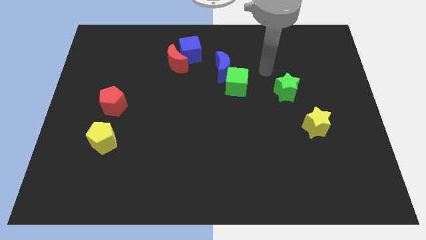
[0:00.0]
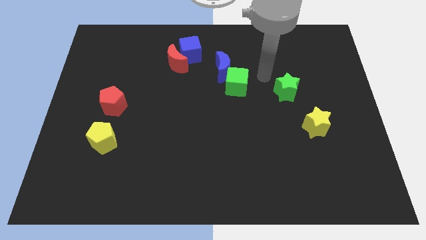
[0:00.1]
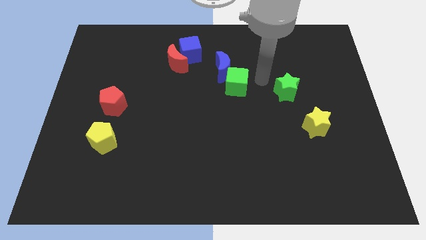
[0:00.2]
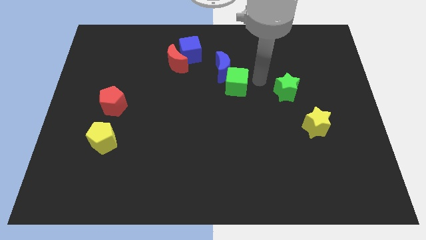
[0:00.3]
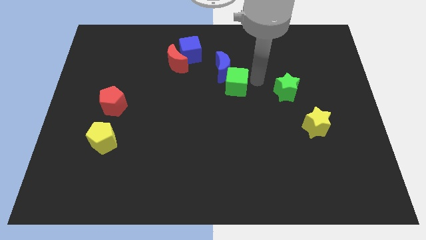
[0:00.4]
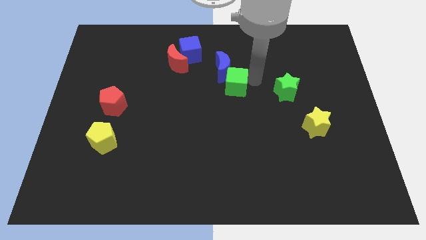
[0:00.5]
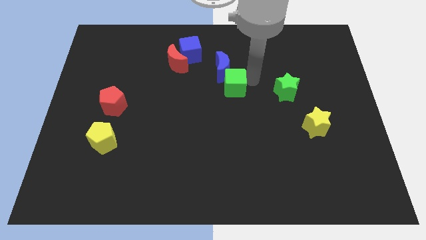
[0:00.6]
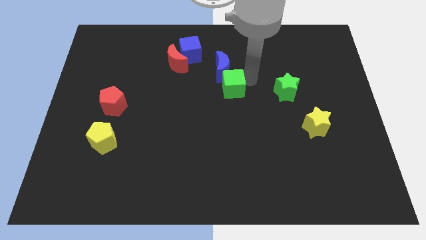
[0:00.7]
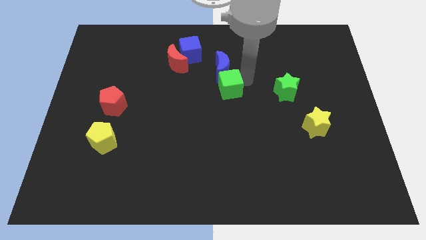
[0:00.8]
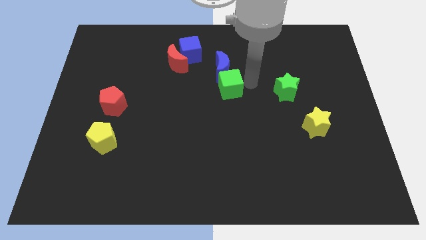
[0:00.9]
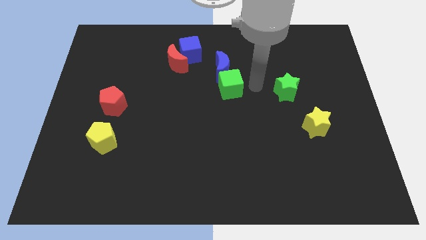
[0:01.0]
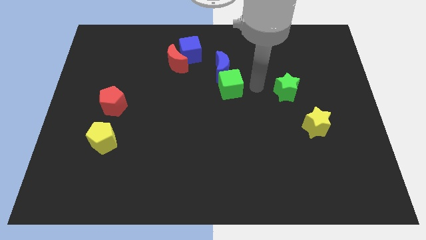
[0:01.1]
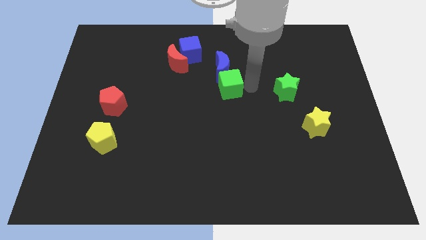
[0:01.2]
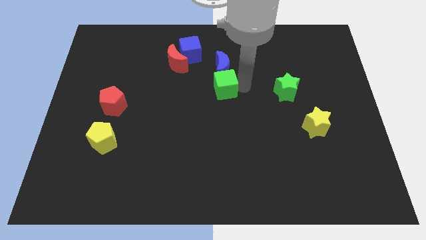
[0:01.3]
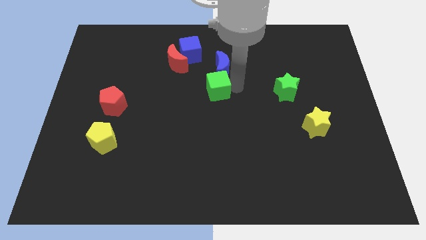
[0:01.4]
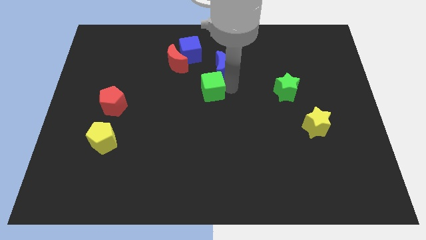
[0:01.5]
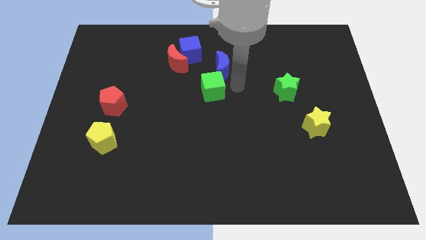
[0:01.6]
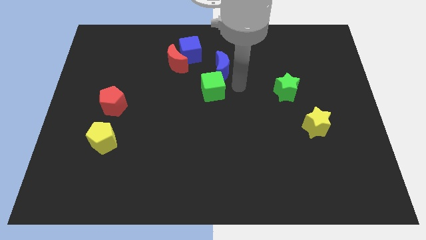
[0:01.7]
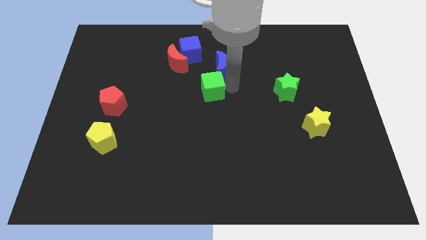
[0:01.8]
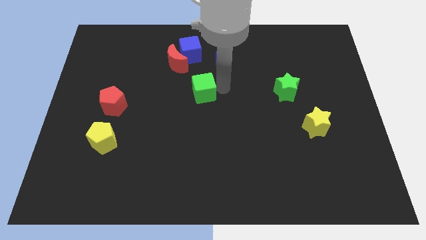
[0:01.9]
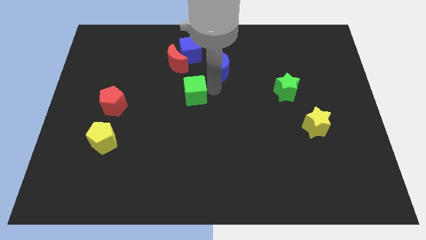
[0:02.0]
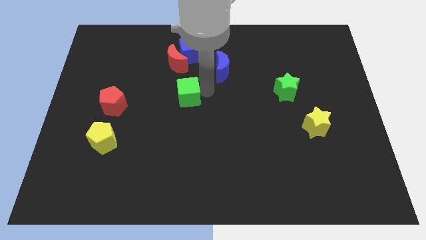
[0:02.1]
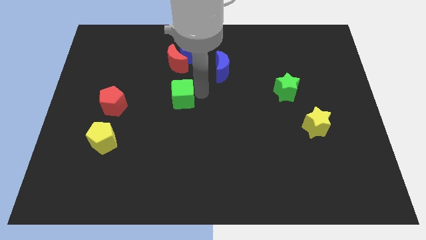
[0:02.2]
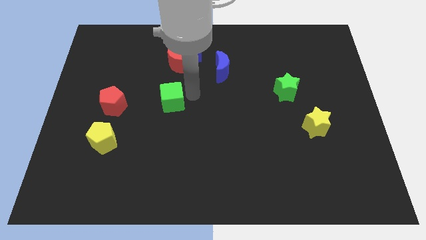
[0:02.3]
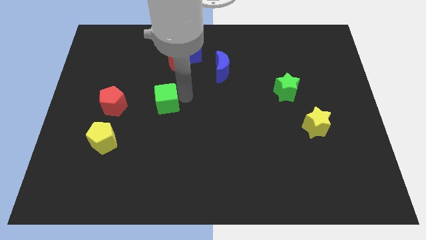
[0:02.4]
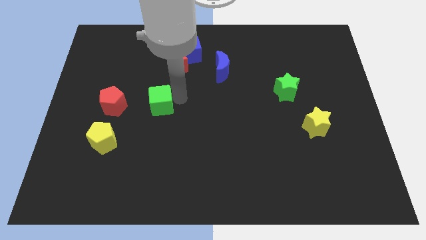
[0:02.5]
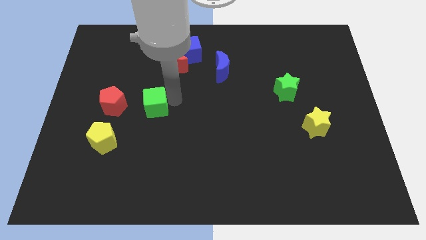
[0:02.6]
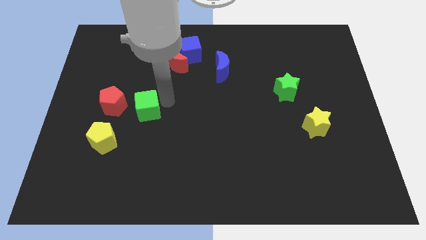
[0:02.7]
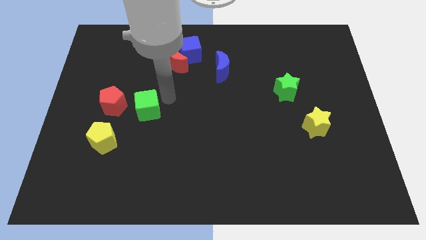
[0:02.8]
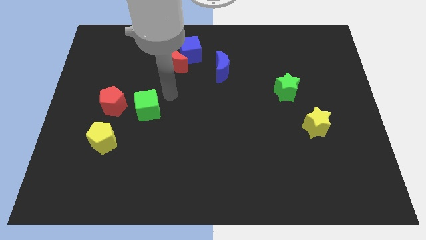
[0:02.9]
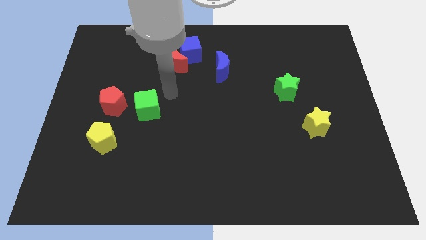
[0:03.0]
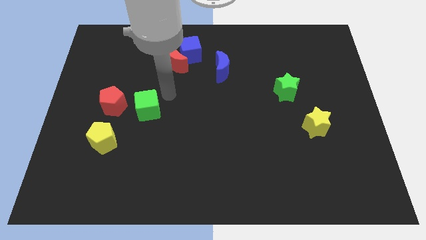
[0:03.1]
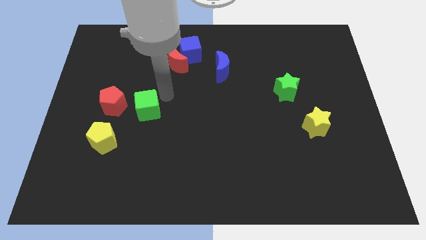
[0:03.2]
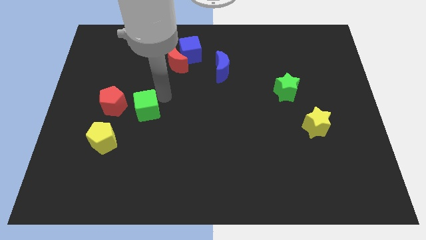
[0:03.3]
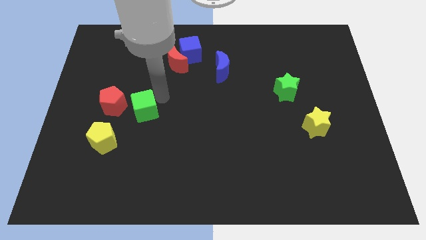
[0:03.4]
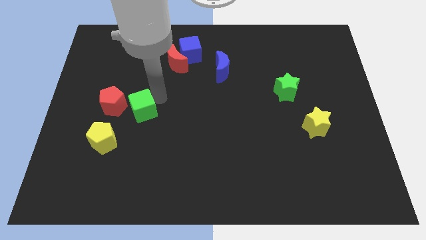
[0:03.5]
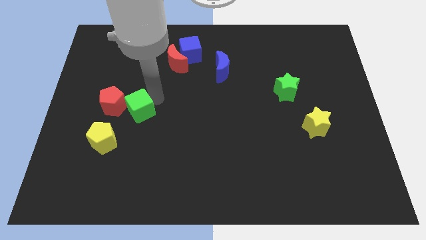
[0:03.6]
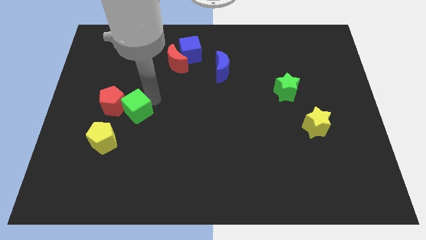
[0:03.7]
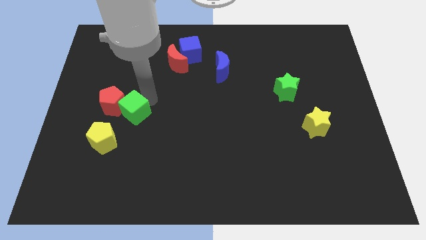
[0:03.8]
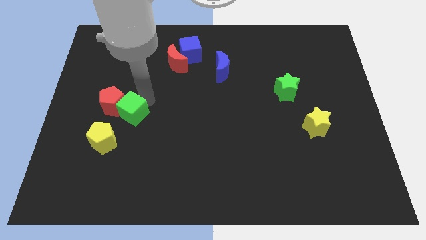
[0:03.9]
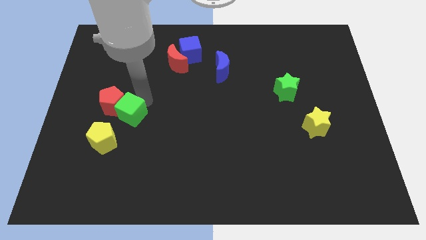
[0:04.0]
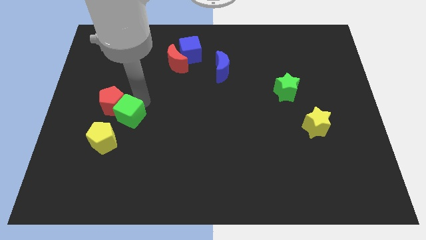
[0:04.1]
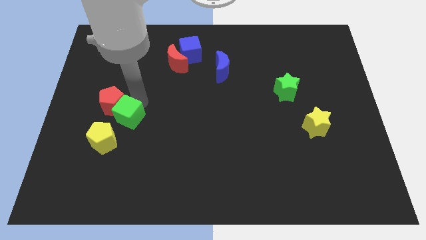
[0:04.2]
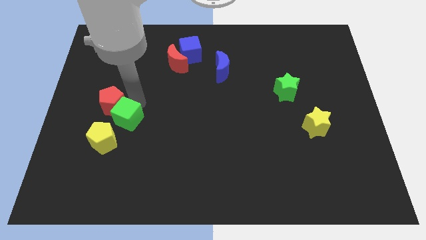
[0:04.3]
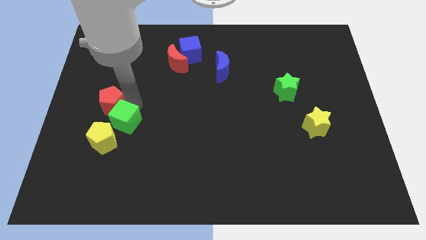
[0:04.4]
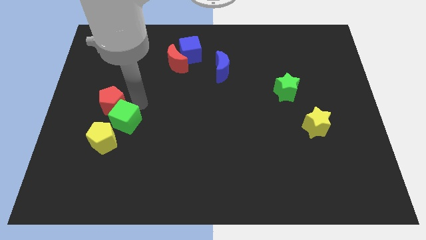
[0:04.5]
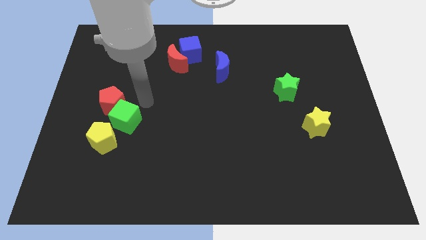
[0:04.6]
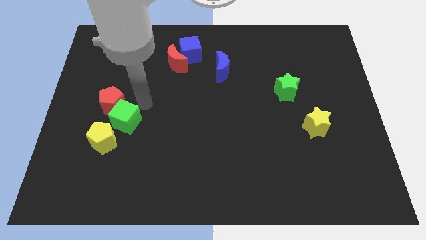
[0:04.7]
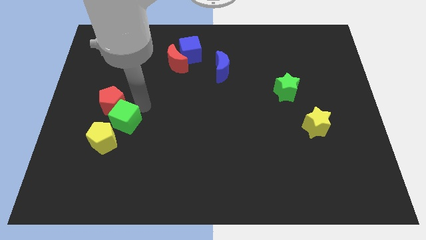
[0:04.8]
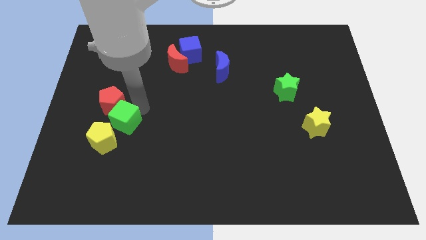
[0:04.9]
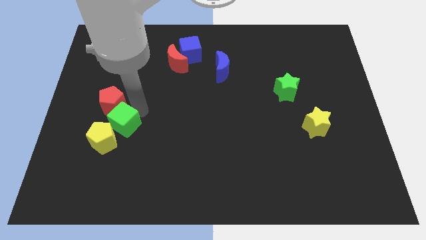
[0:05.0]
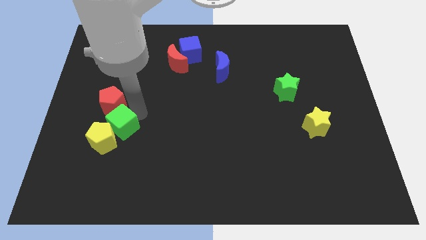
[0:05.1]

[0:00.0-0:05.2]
push the green cube to the yellow pentagon

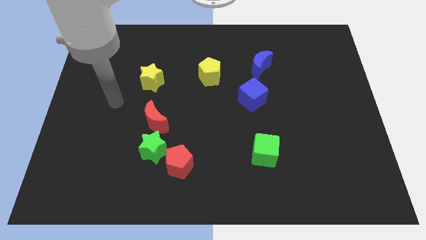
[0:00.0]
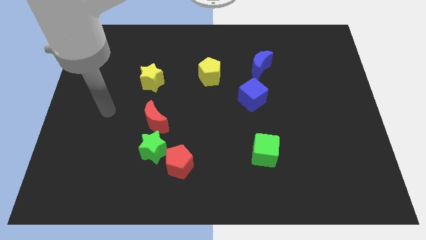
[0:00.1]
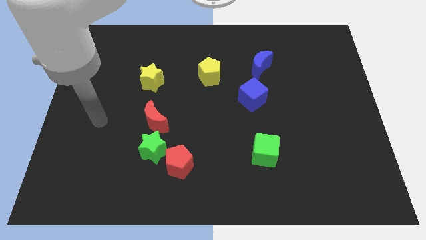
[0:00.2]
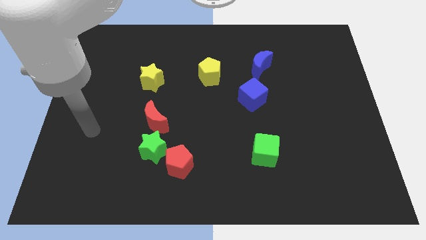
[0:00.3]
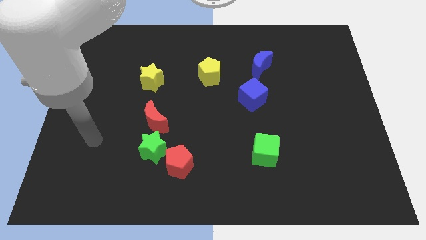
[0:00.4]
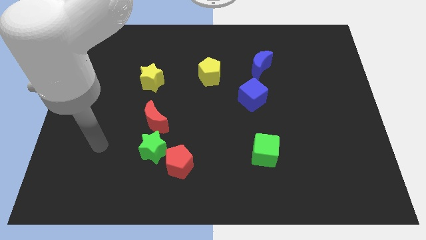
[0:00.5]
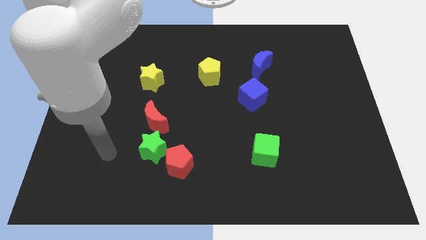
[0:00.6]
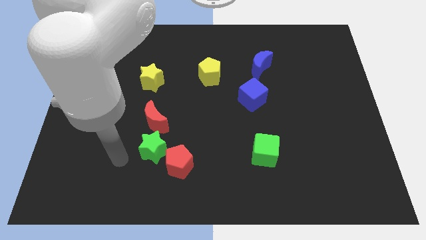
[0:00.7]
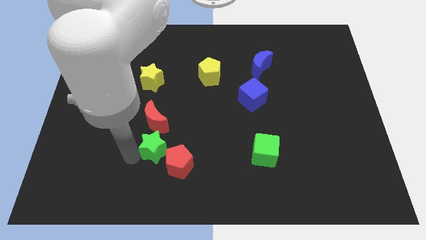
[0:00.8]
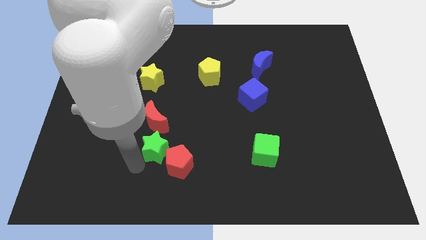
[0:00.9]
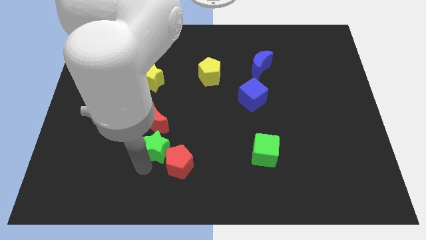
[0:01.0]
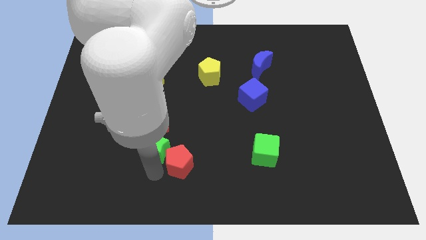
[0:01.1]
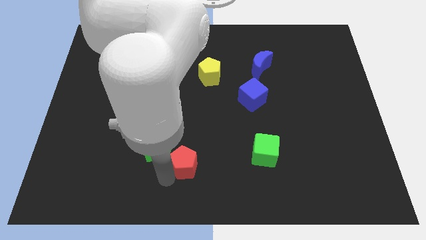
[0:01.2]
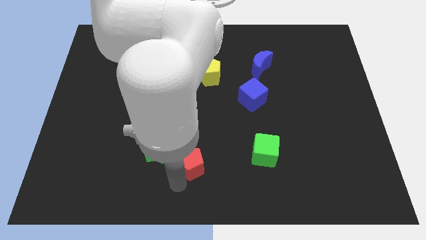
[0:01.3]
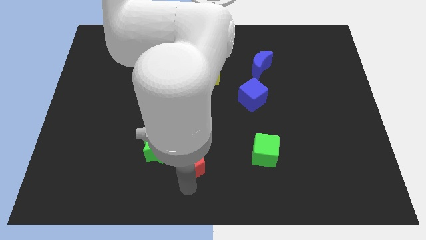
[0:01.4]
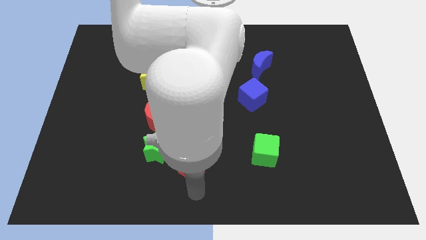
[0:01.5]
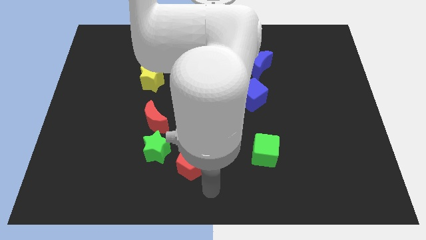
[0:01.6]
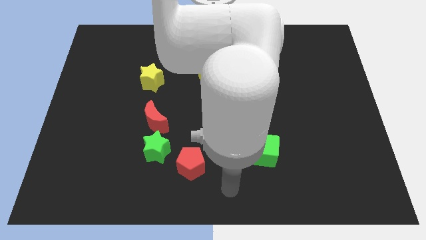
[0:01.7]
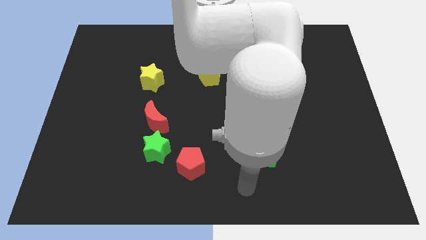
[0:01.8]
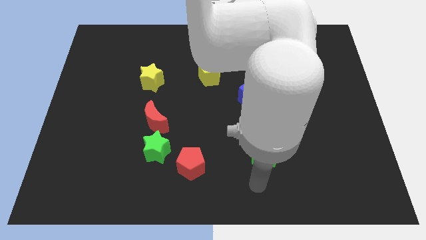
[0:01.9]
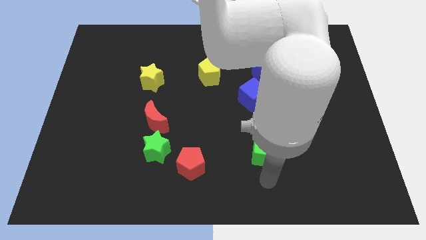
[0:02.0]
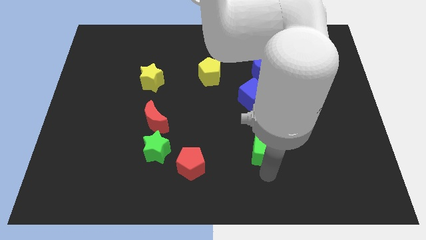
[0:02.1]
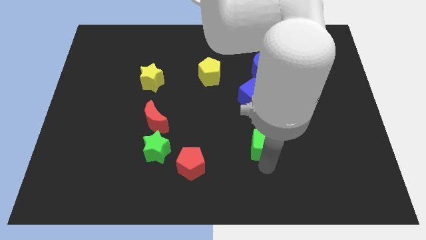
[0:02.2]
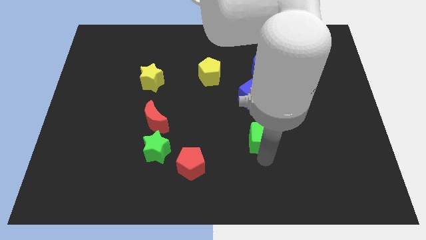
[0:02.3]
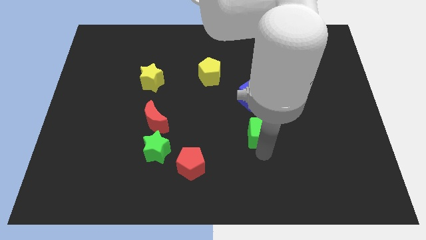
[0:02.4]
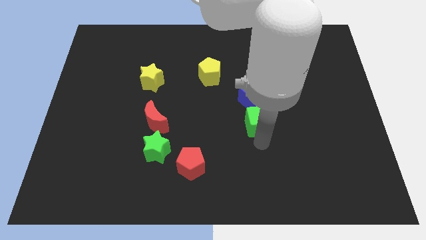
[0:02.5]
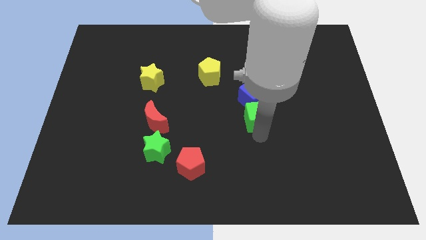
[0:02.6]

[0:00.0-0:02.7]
push the green cube to the blue cube
